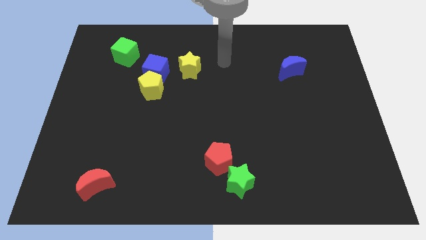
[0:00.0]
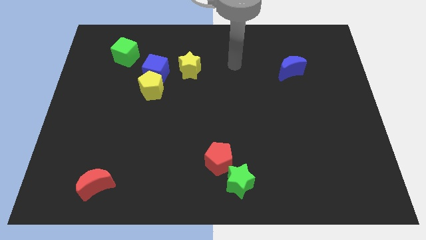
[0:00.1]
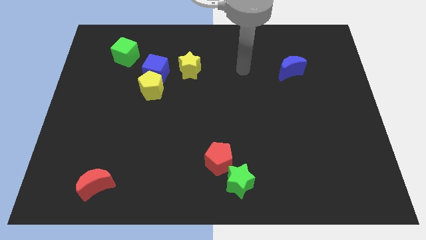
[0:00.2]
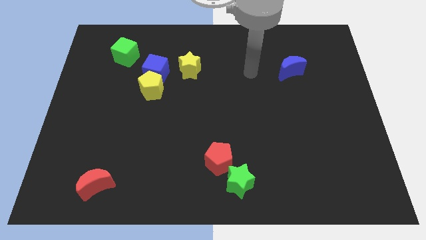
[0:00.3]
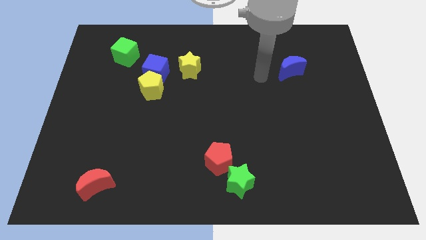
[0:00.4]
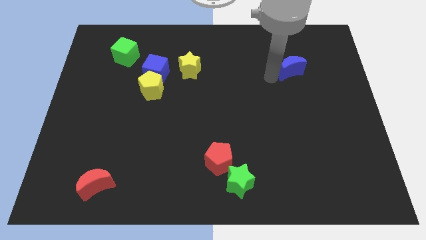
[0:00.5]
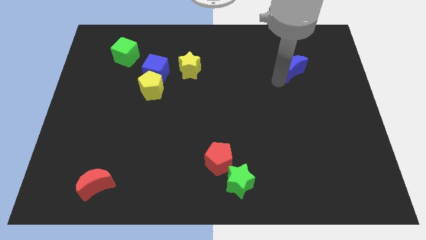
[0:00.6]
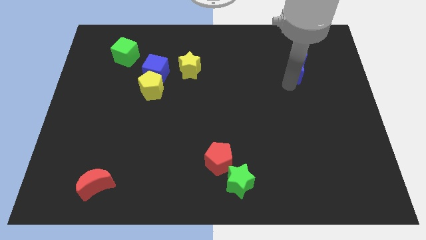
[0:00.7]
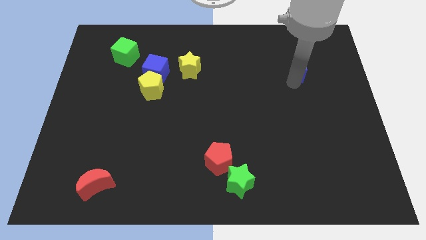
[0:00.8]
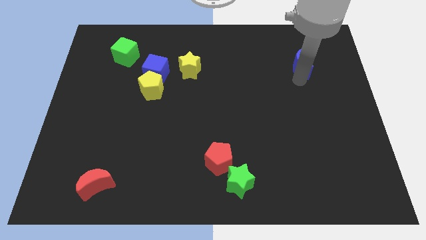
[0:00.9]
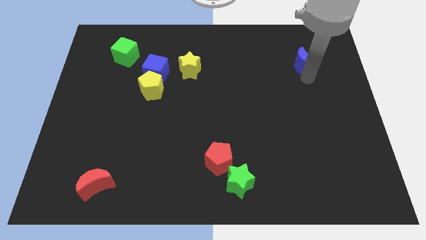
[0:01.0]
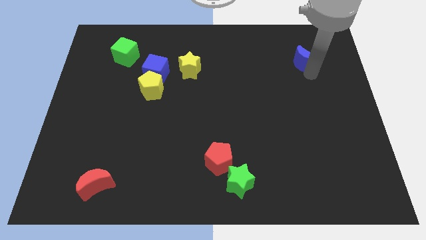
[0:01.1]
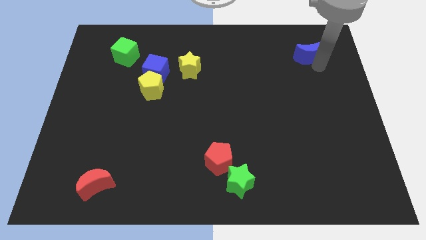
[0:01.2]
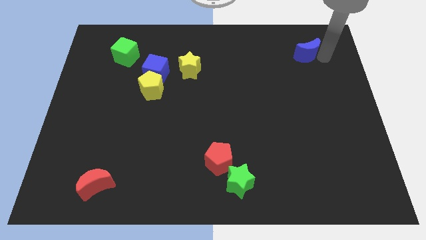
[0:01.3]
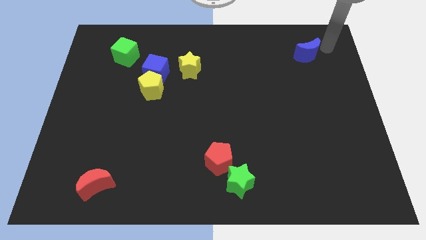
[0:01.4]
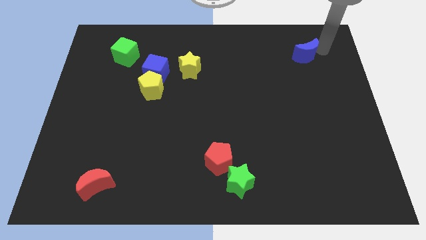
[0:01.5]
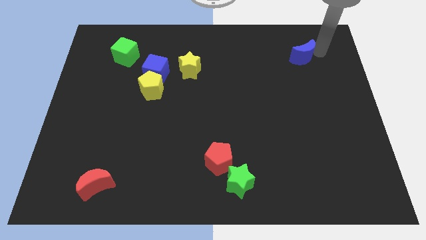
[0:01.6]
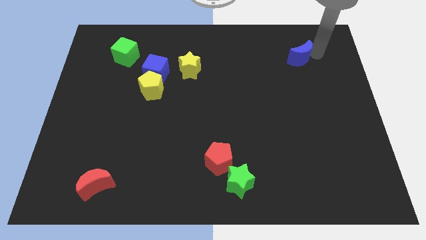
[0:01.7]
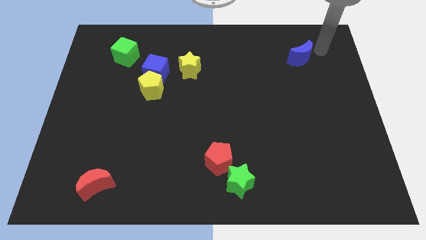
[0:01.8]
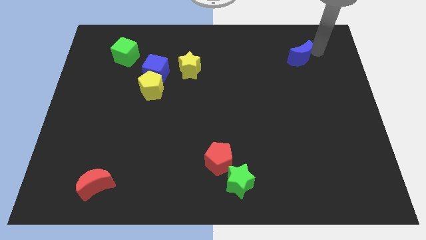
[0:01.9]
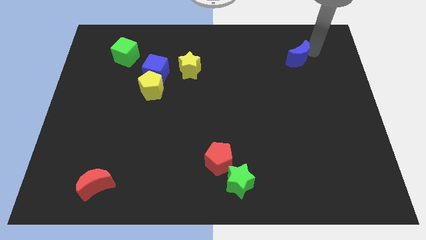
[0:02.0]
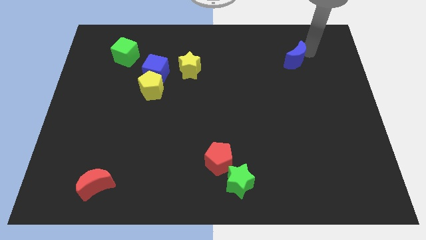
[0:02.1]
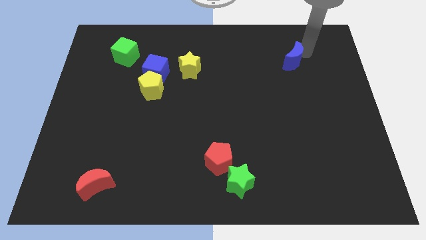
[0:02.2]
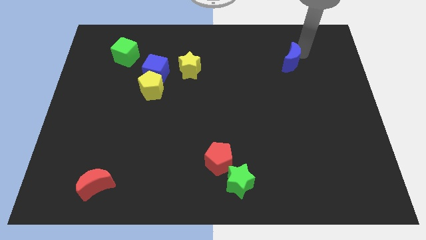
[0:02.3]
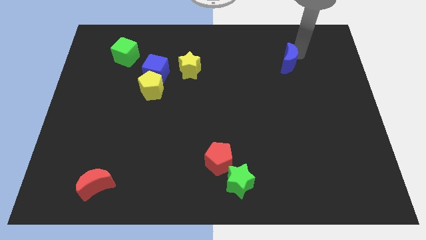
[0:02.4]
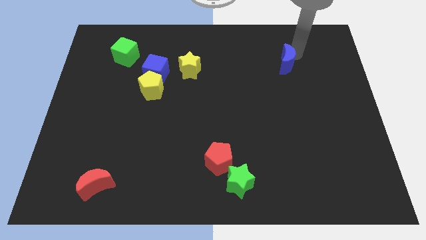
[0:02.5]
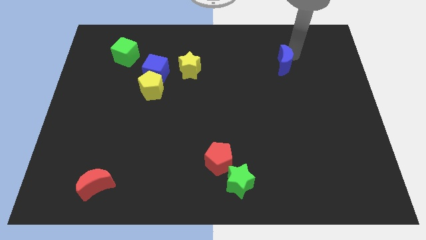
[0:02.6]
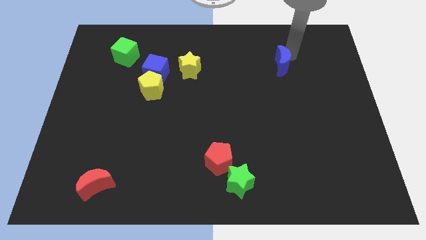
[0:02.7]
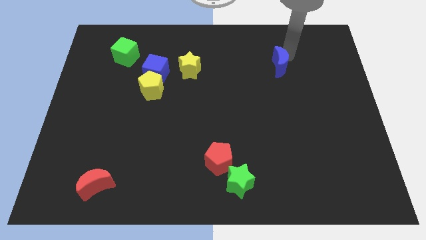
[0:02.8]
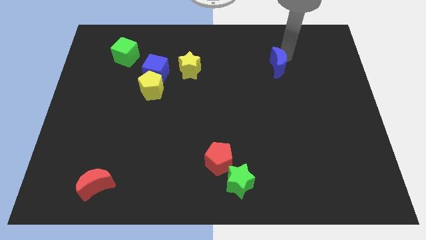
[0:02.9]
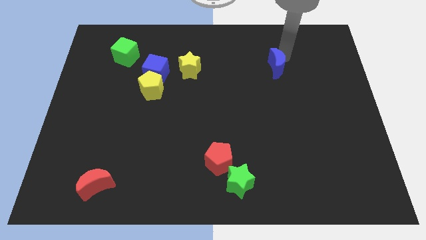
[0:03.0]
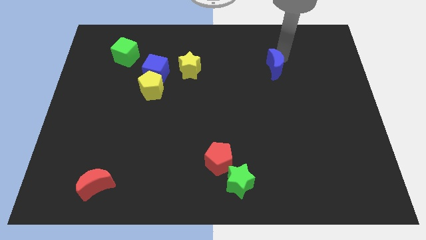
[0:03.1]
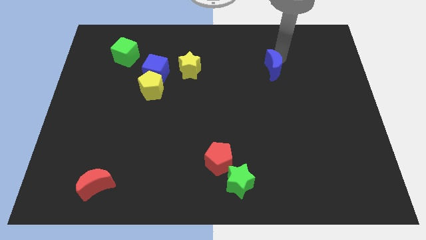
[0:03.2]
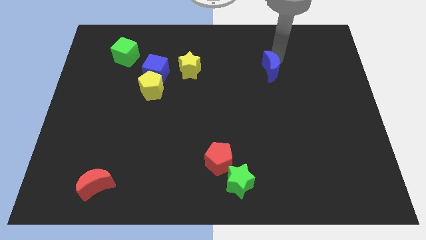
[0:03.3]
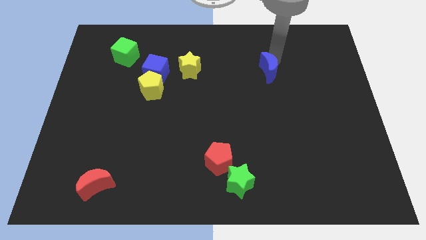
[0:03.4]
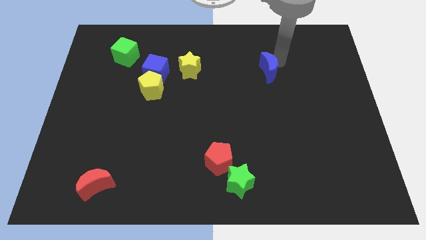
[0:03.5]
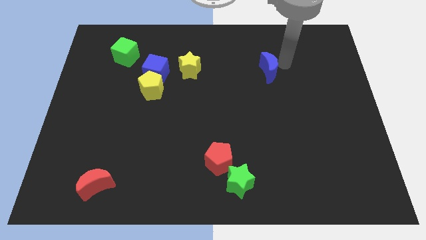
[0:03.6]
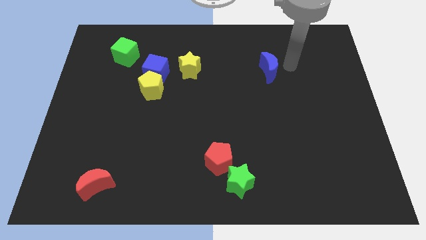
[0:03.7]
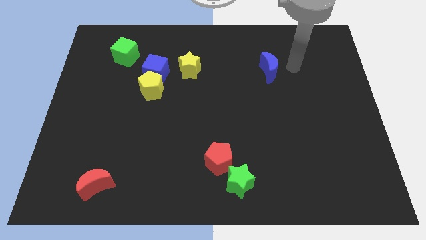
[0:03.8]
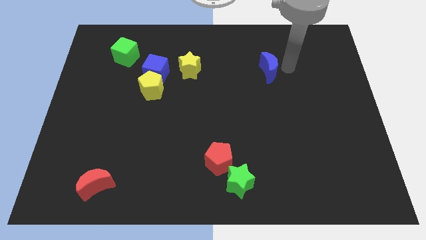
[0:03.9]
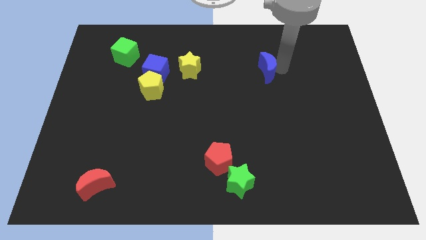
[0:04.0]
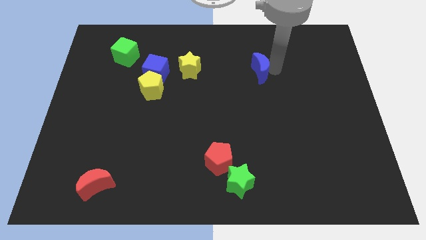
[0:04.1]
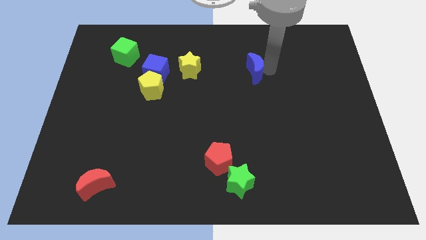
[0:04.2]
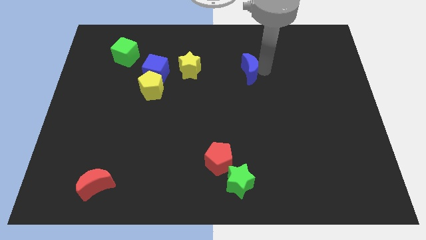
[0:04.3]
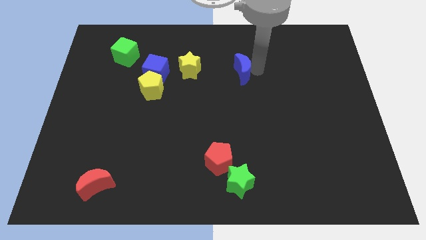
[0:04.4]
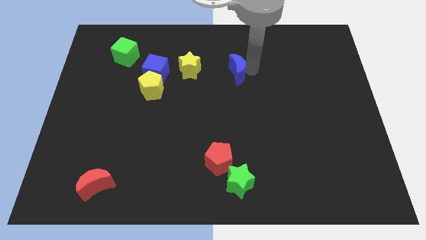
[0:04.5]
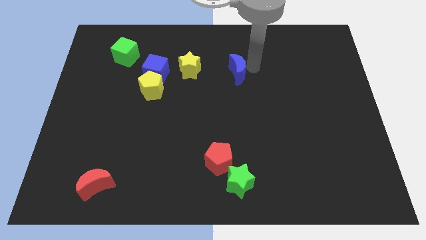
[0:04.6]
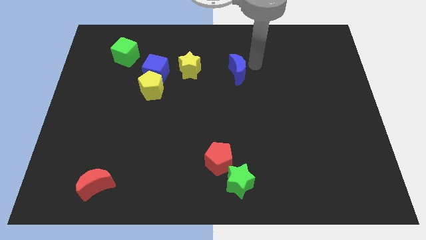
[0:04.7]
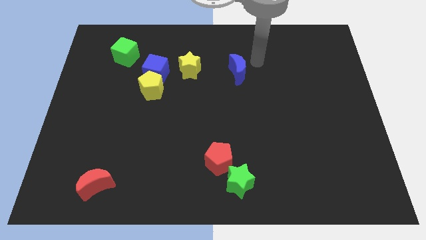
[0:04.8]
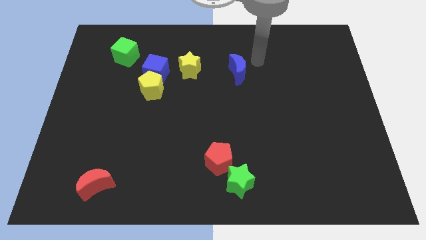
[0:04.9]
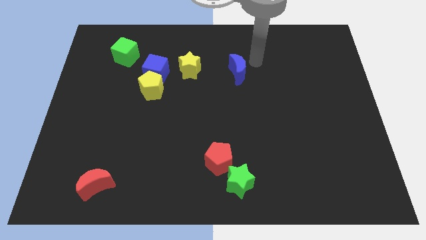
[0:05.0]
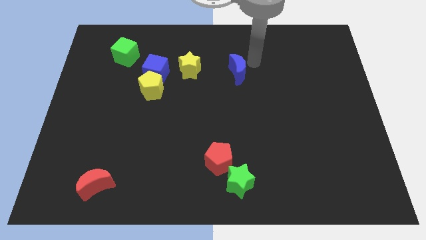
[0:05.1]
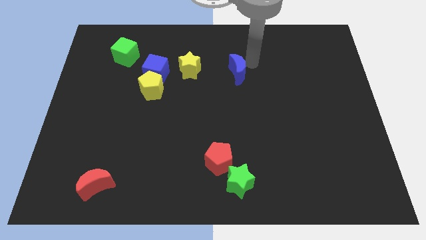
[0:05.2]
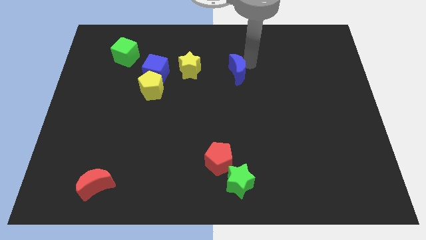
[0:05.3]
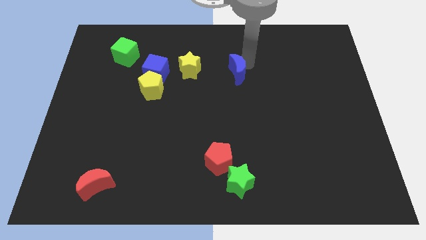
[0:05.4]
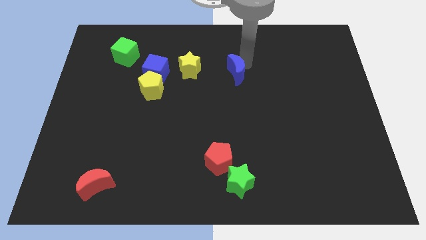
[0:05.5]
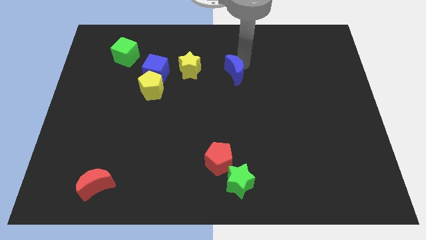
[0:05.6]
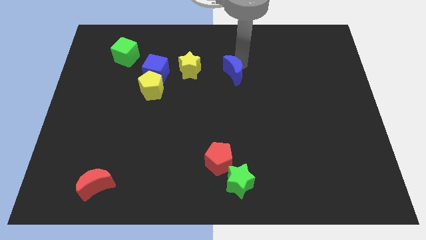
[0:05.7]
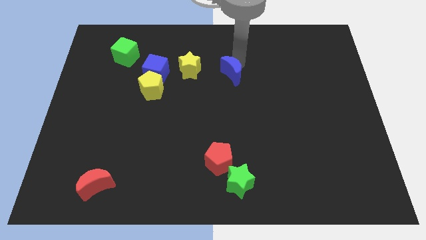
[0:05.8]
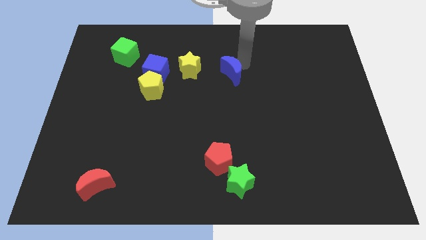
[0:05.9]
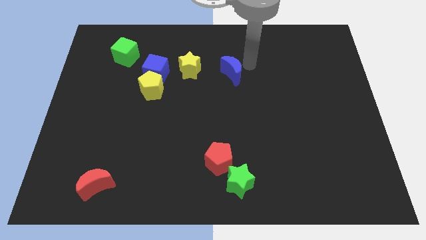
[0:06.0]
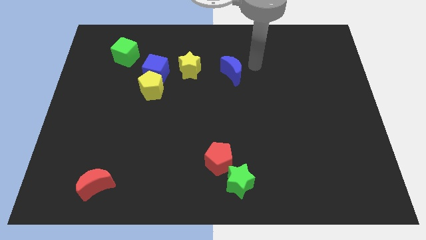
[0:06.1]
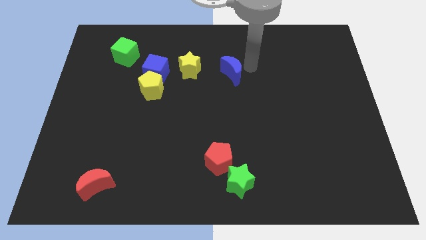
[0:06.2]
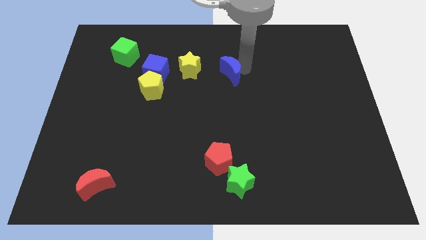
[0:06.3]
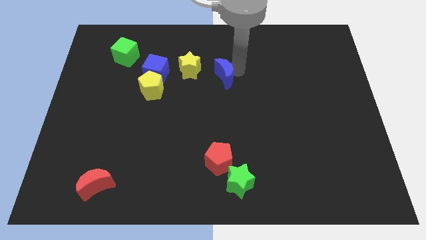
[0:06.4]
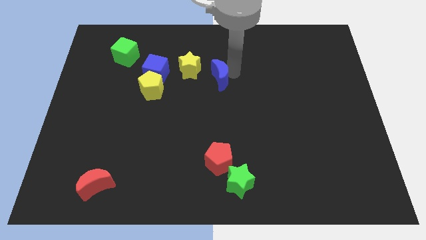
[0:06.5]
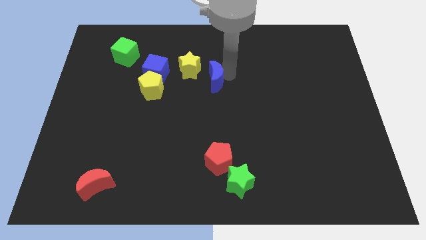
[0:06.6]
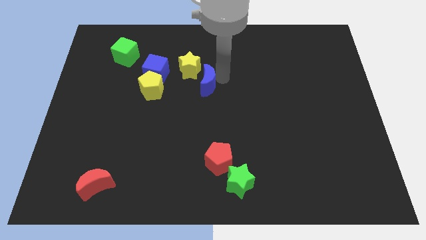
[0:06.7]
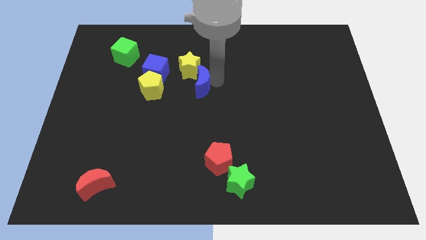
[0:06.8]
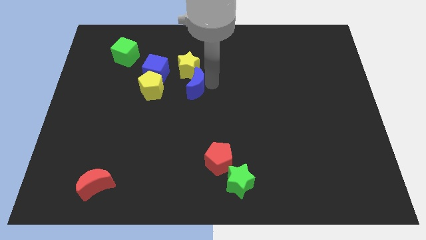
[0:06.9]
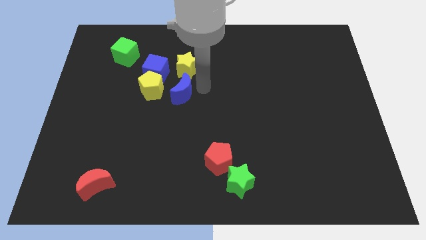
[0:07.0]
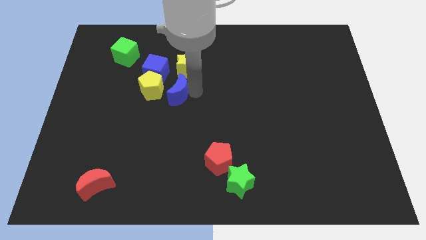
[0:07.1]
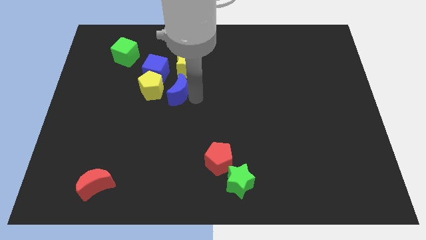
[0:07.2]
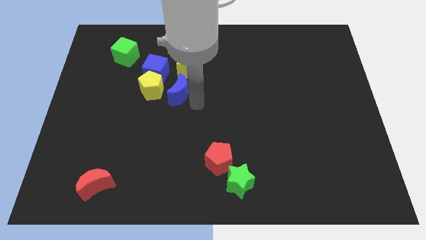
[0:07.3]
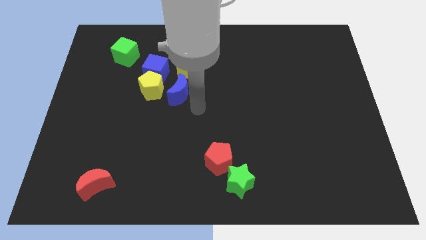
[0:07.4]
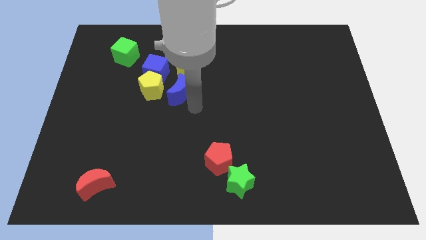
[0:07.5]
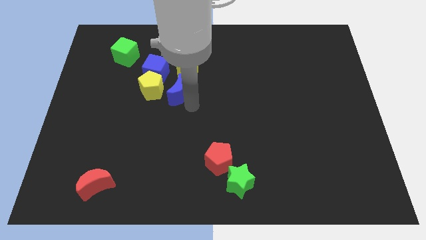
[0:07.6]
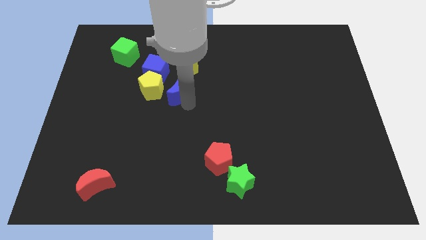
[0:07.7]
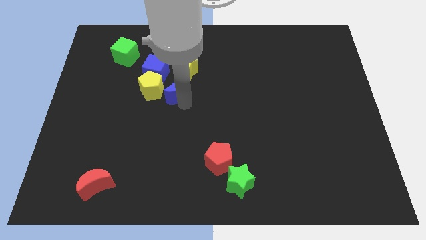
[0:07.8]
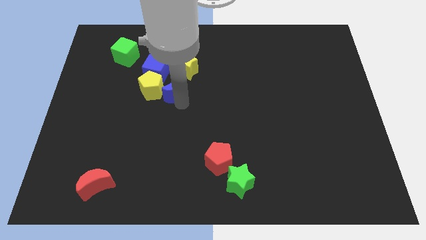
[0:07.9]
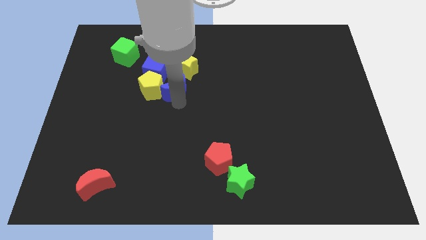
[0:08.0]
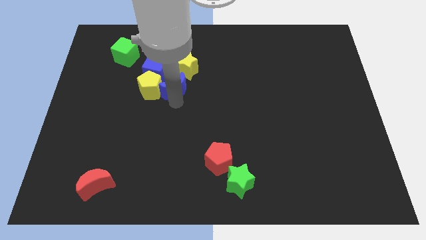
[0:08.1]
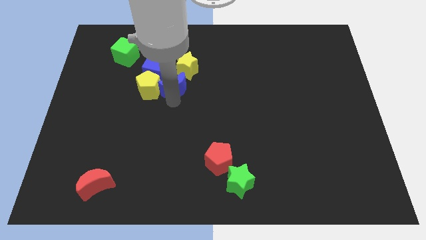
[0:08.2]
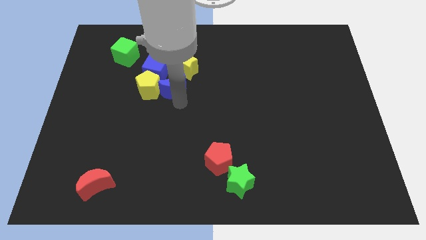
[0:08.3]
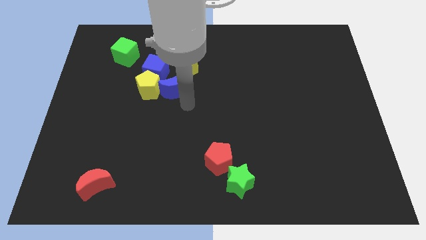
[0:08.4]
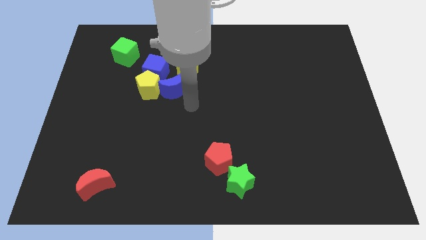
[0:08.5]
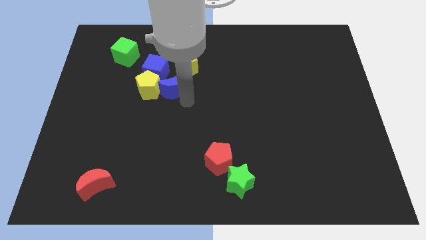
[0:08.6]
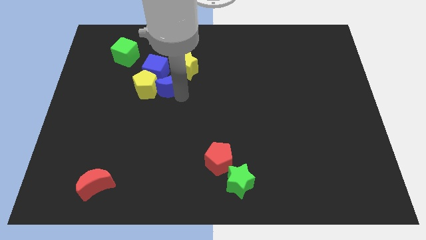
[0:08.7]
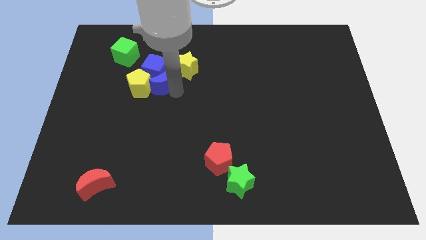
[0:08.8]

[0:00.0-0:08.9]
put the blue moon close to the blue cube
